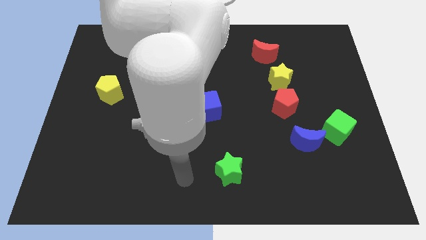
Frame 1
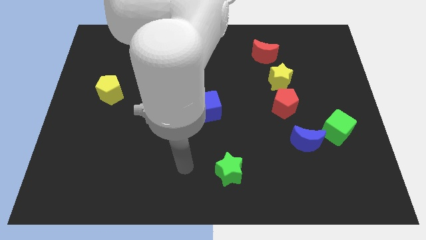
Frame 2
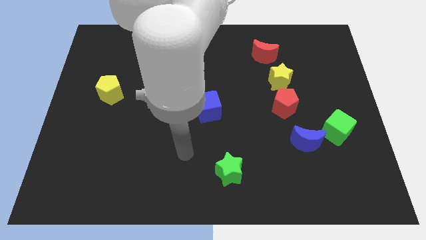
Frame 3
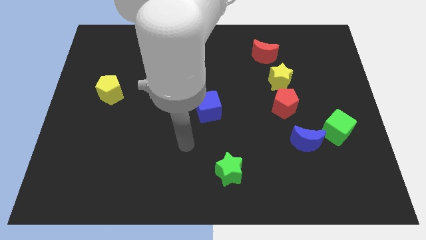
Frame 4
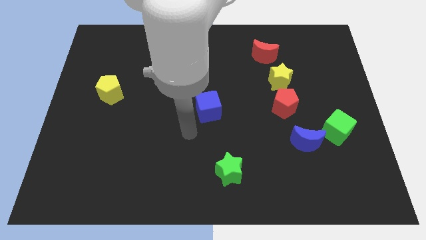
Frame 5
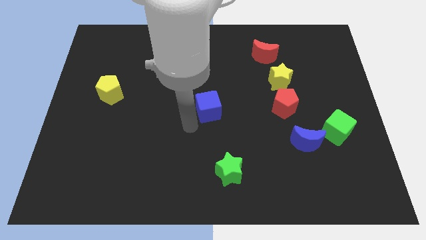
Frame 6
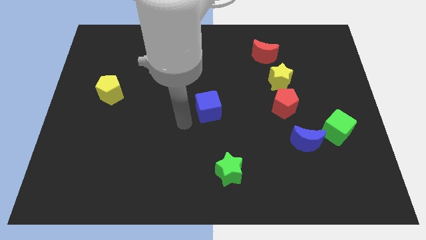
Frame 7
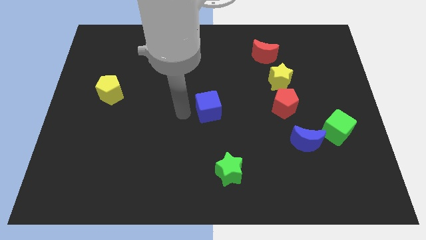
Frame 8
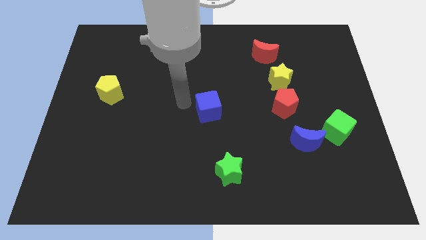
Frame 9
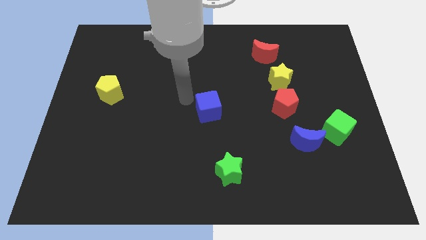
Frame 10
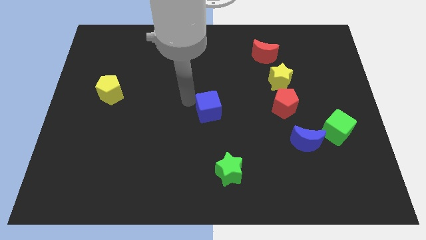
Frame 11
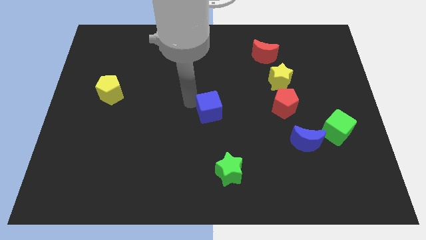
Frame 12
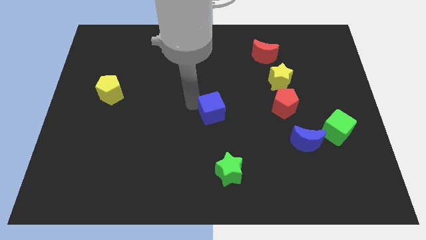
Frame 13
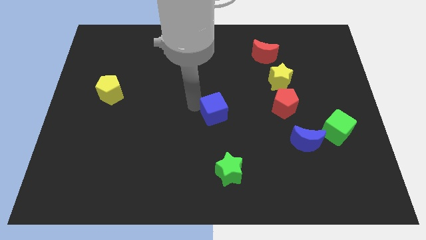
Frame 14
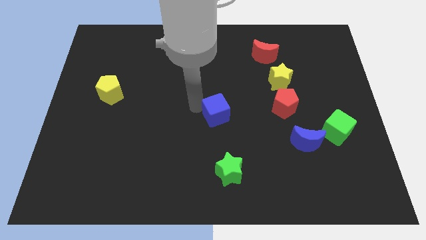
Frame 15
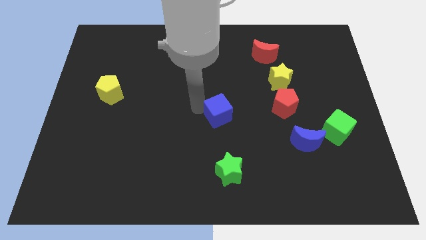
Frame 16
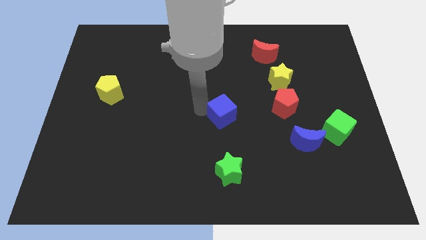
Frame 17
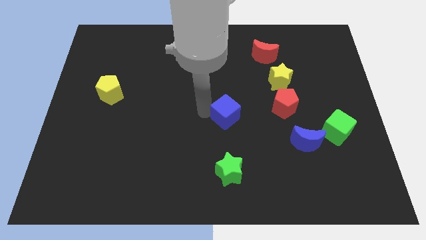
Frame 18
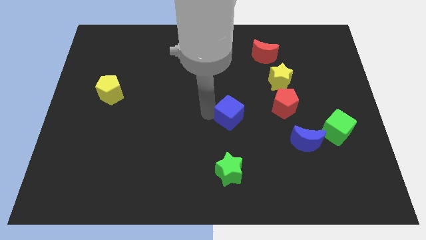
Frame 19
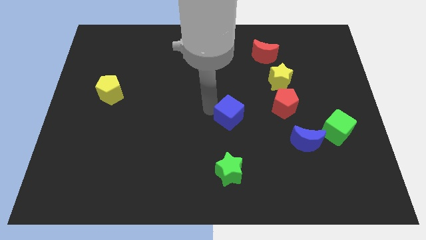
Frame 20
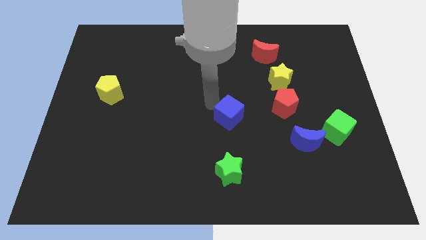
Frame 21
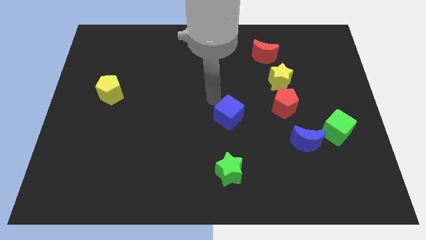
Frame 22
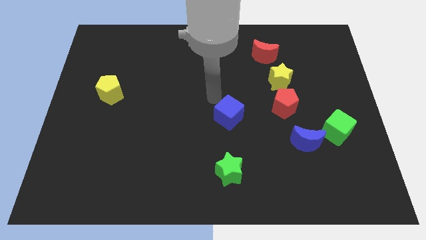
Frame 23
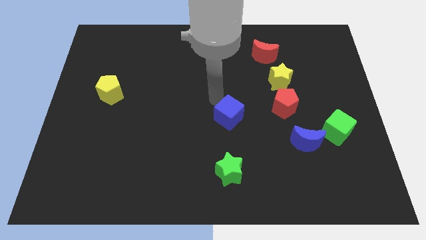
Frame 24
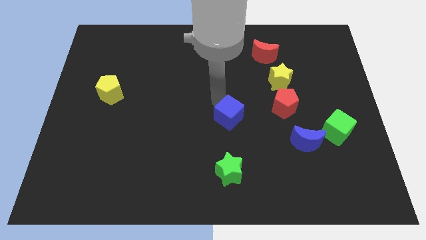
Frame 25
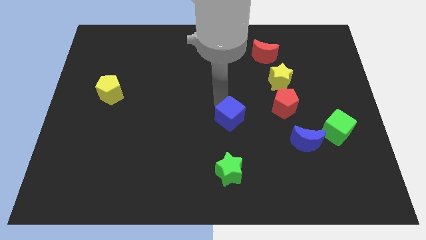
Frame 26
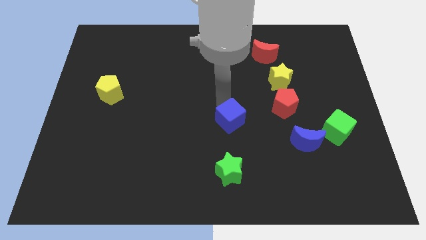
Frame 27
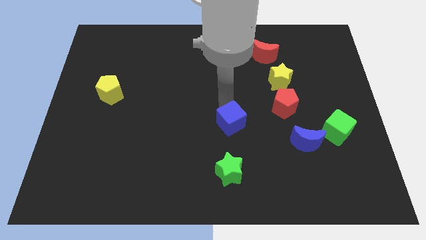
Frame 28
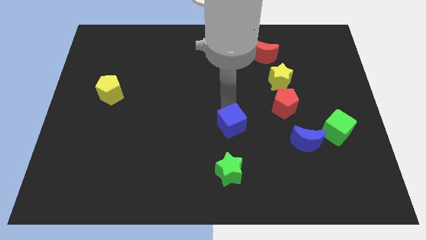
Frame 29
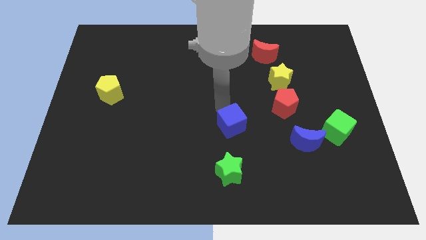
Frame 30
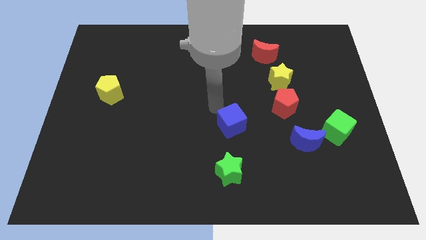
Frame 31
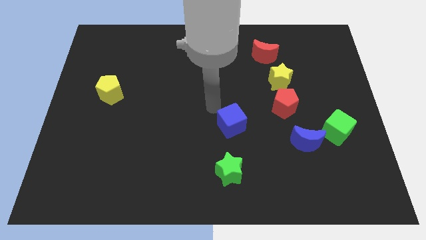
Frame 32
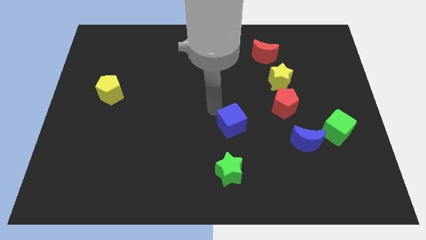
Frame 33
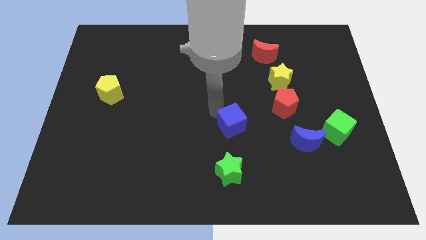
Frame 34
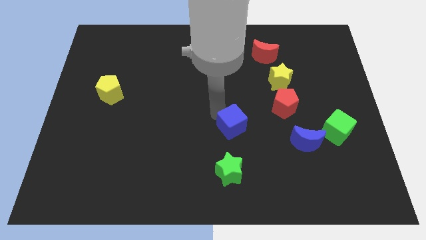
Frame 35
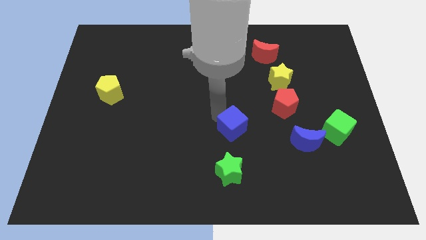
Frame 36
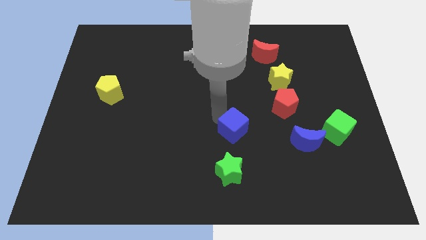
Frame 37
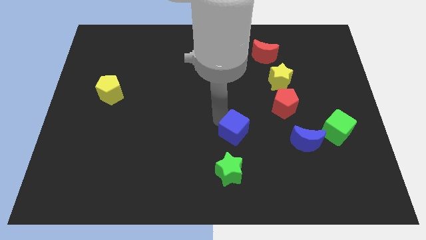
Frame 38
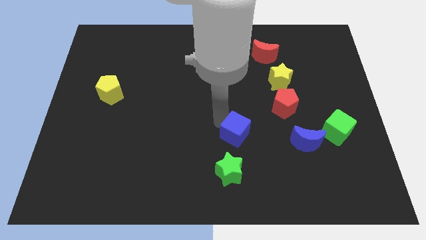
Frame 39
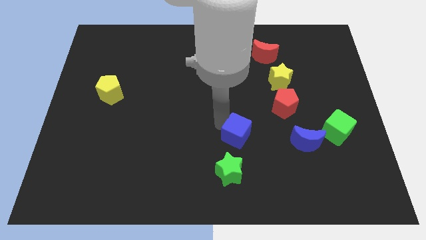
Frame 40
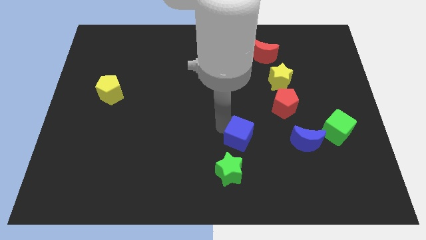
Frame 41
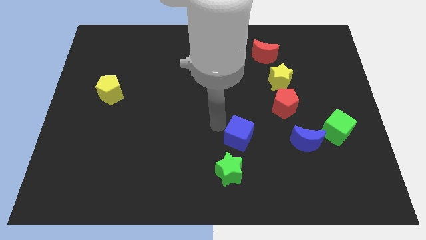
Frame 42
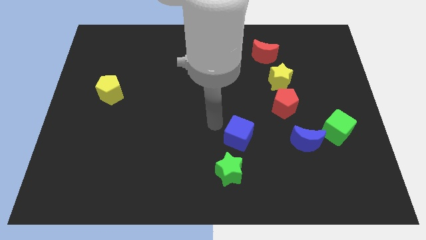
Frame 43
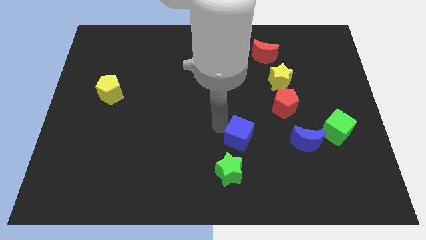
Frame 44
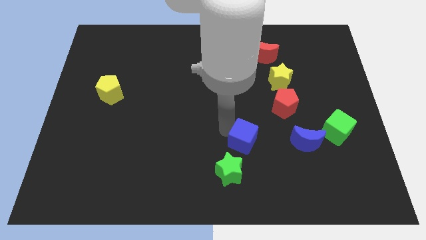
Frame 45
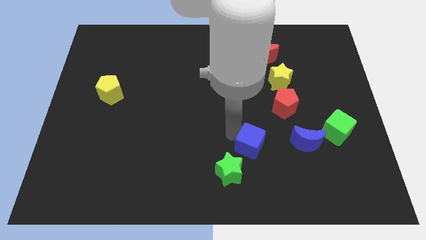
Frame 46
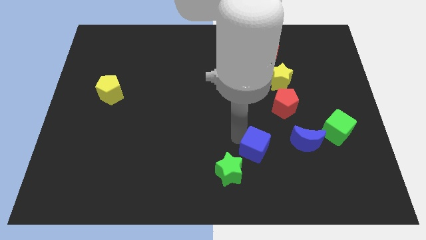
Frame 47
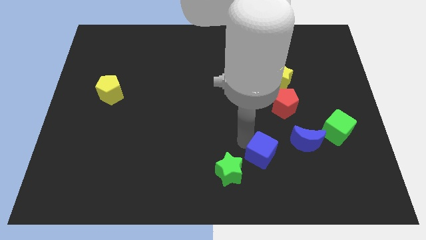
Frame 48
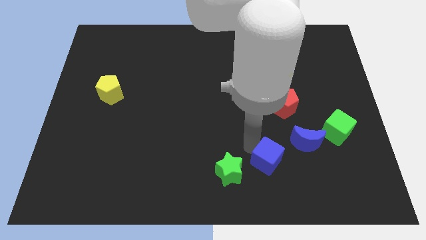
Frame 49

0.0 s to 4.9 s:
put the blue cube to the bottom left side of the blue moon

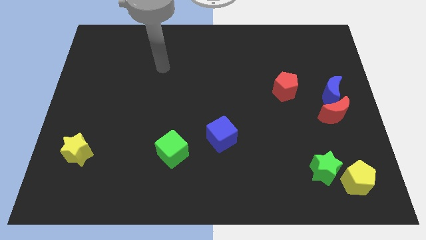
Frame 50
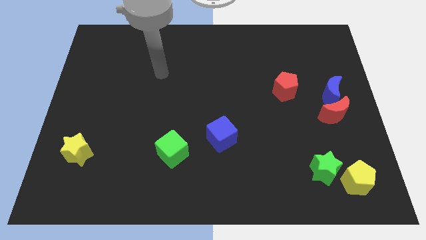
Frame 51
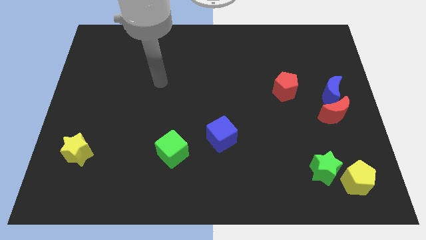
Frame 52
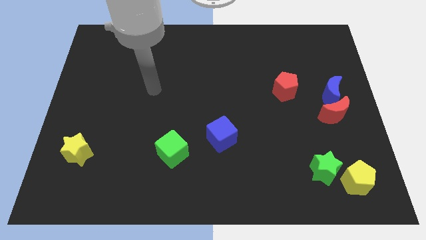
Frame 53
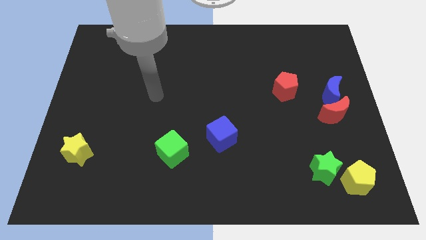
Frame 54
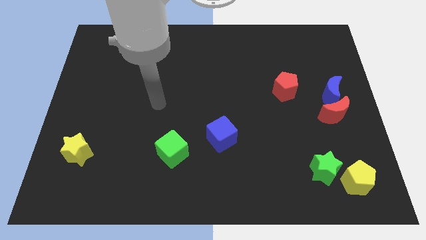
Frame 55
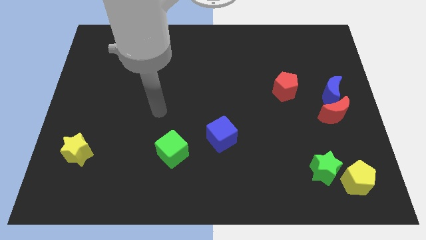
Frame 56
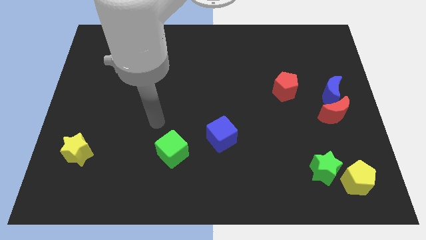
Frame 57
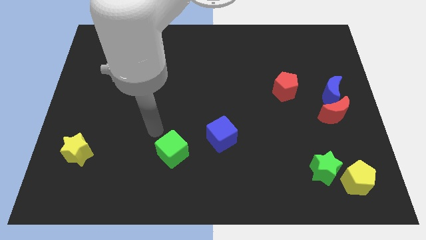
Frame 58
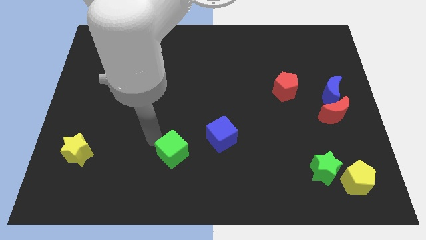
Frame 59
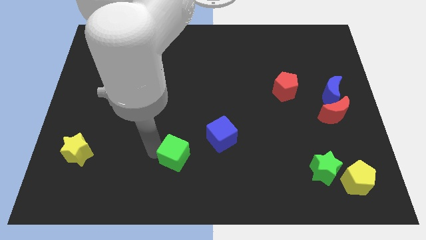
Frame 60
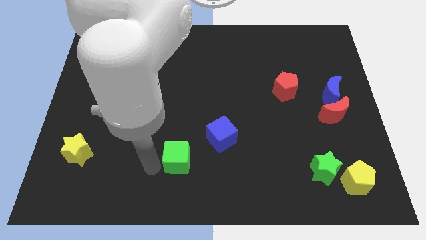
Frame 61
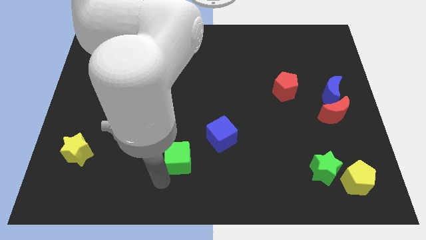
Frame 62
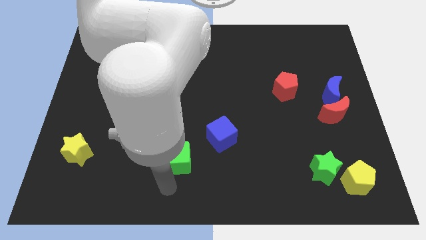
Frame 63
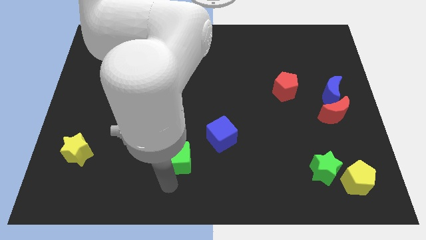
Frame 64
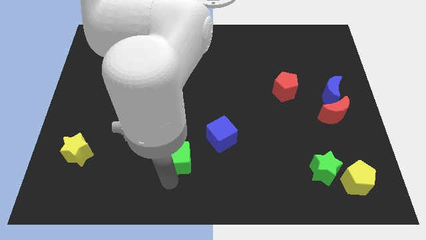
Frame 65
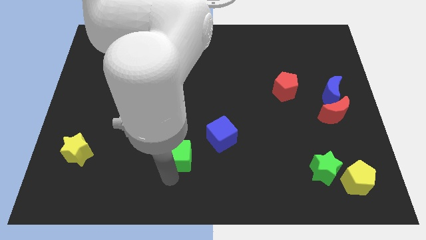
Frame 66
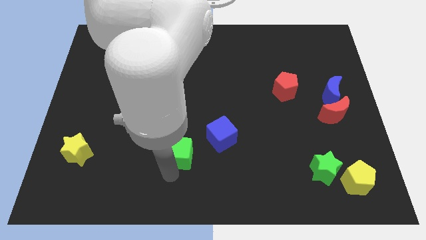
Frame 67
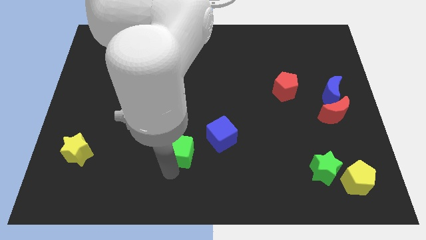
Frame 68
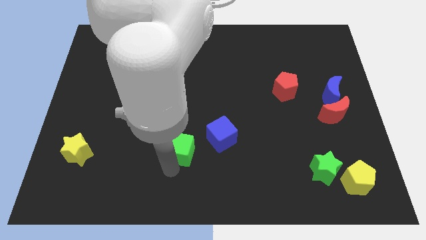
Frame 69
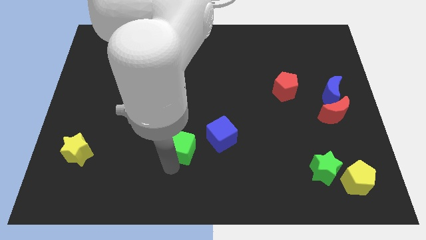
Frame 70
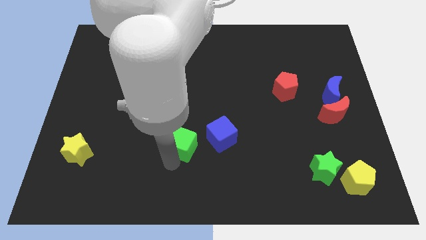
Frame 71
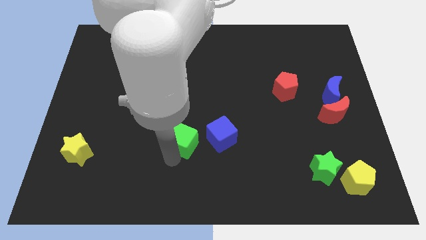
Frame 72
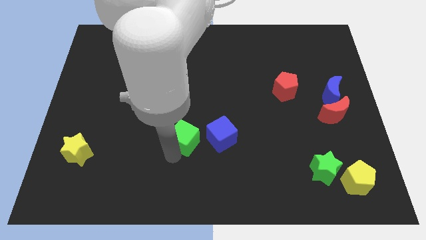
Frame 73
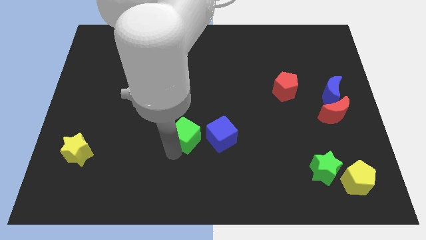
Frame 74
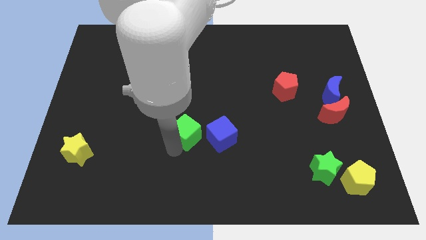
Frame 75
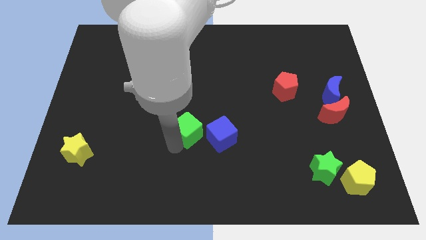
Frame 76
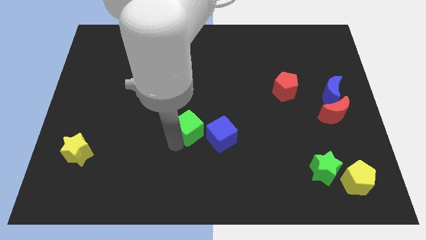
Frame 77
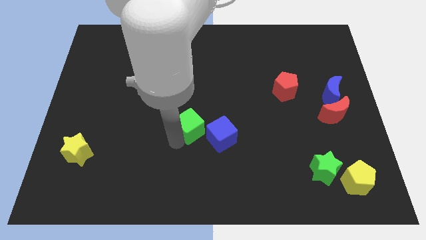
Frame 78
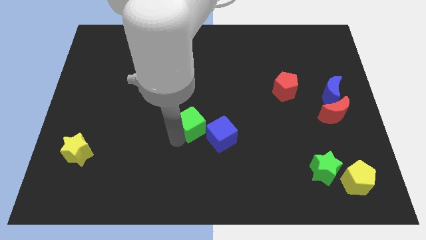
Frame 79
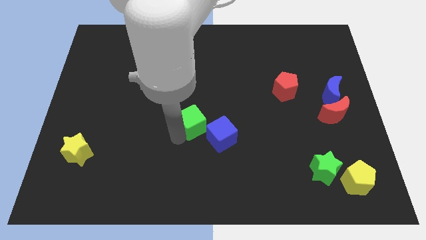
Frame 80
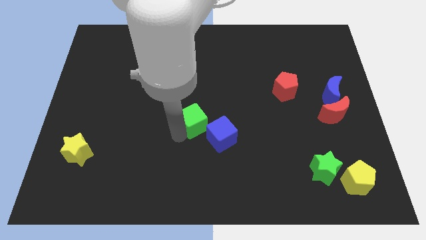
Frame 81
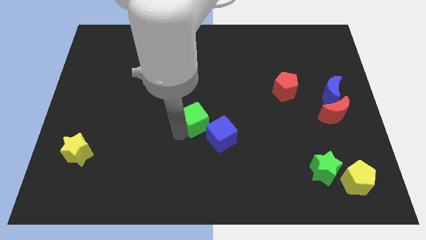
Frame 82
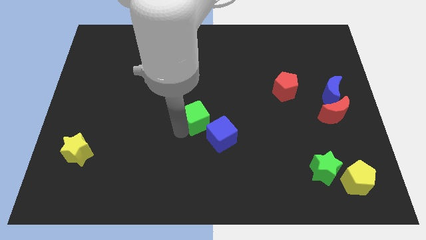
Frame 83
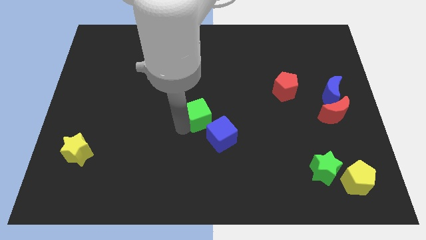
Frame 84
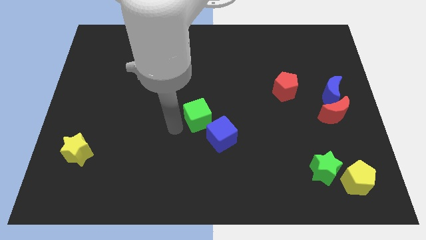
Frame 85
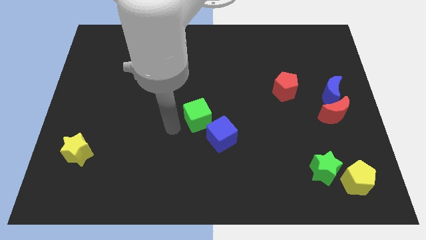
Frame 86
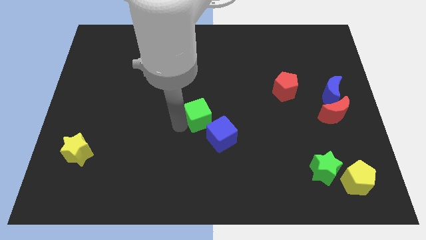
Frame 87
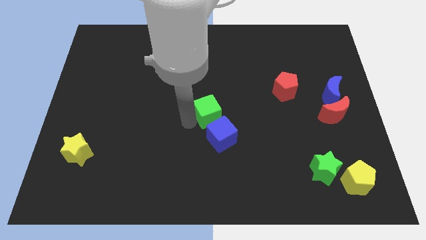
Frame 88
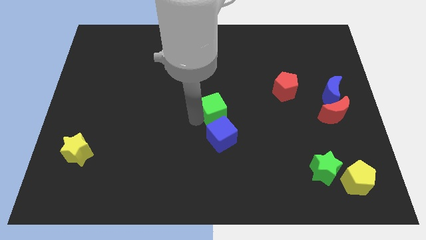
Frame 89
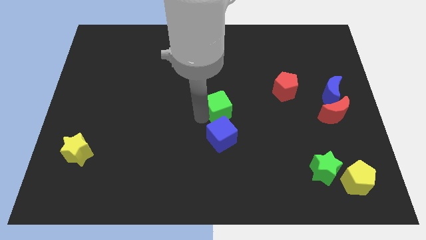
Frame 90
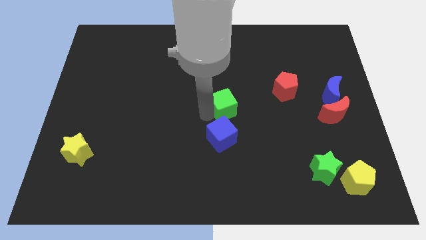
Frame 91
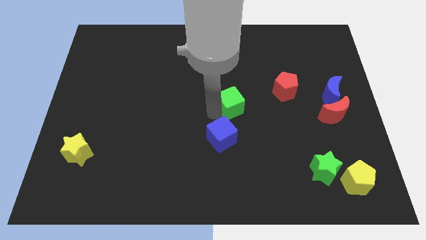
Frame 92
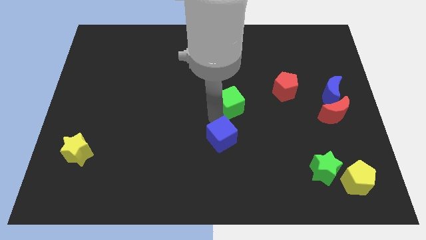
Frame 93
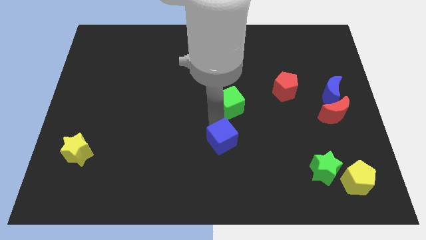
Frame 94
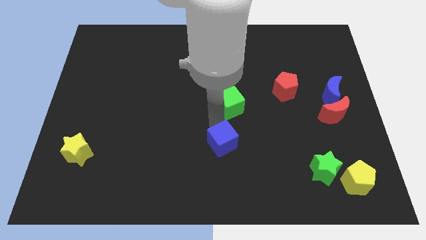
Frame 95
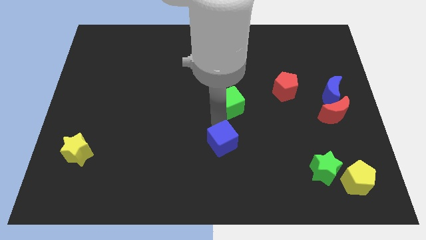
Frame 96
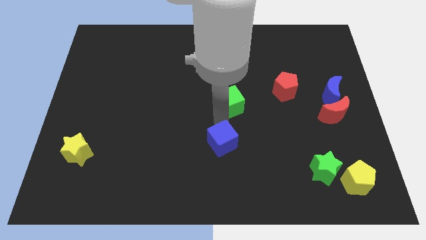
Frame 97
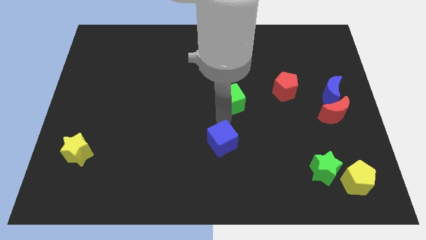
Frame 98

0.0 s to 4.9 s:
push the green cube to the left of the red pentagon
